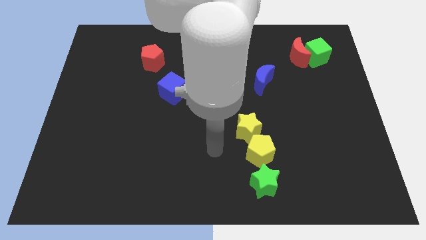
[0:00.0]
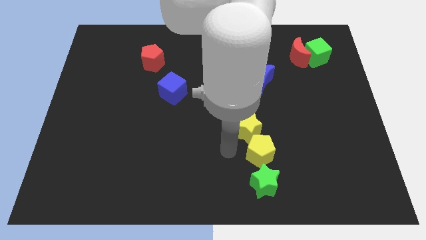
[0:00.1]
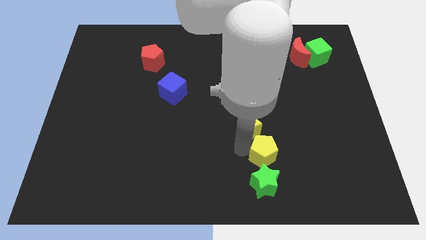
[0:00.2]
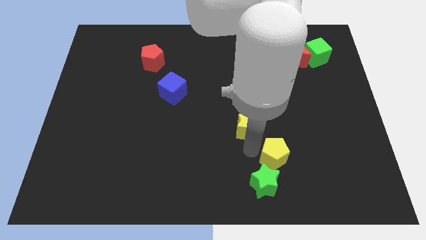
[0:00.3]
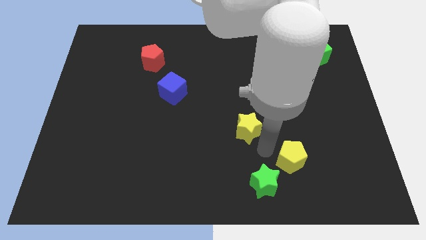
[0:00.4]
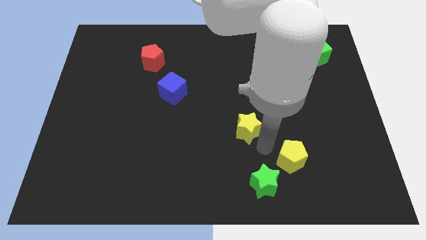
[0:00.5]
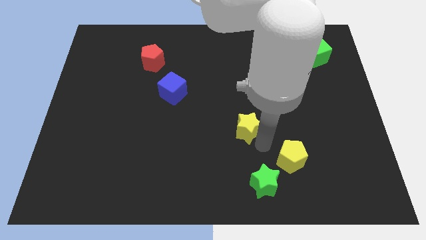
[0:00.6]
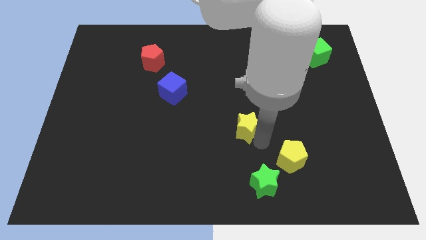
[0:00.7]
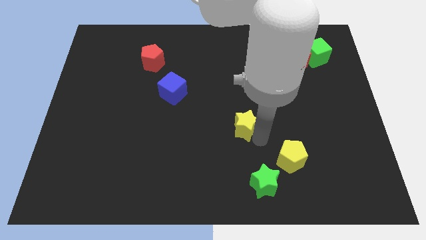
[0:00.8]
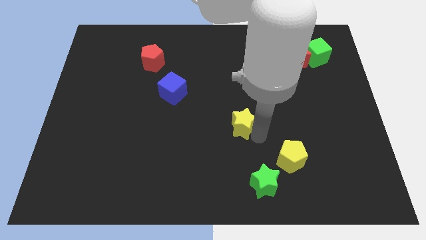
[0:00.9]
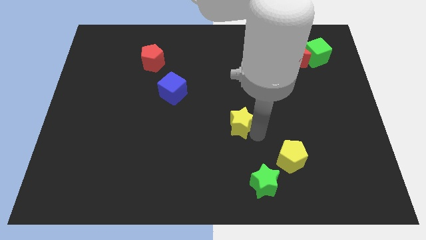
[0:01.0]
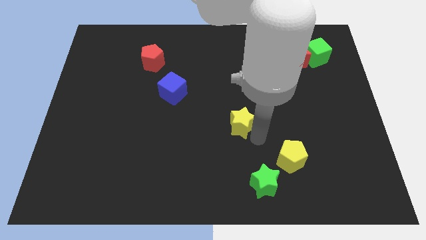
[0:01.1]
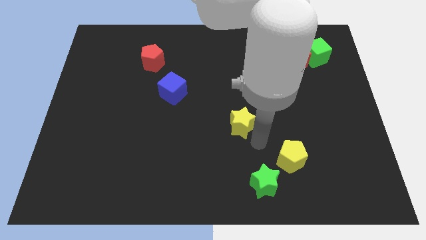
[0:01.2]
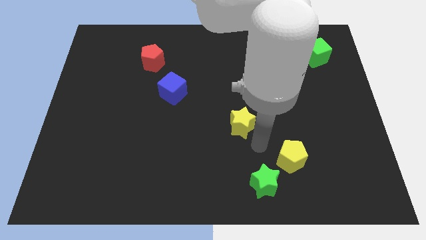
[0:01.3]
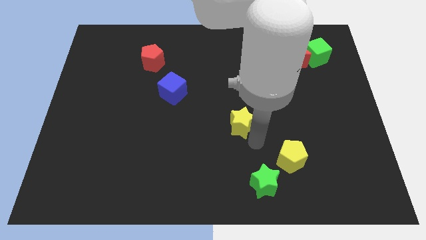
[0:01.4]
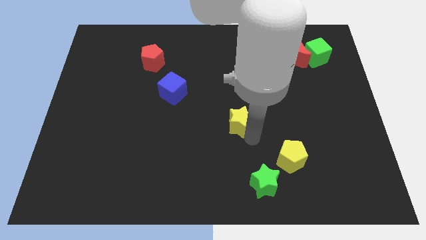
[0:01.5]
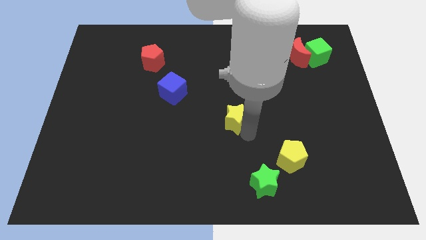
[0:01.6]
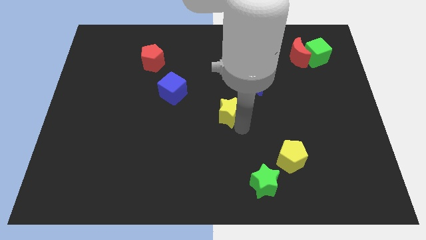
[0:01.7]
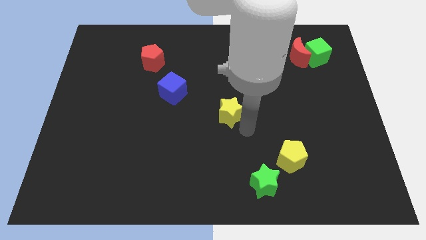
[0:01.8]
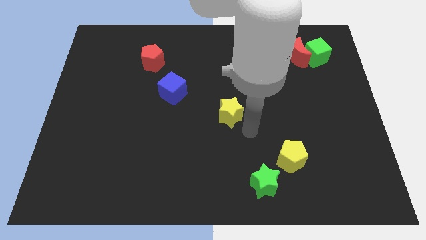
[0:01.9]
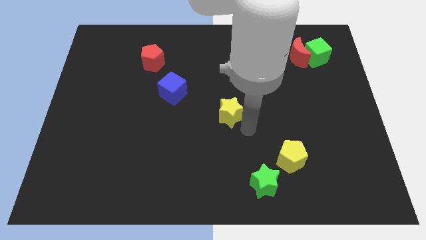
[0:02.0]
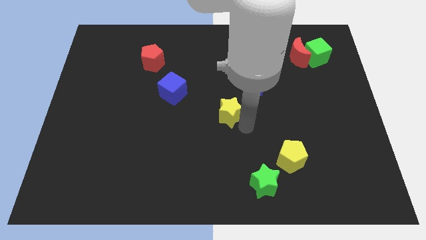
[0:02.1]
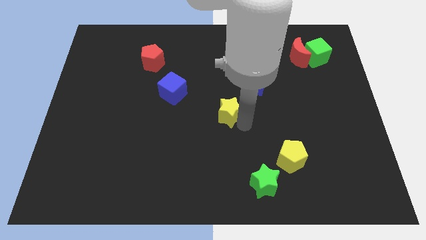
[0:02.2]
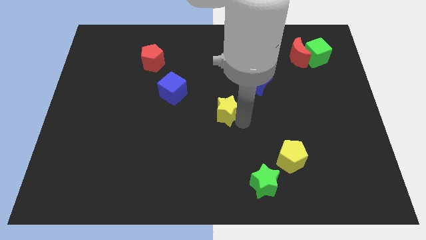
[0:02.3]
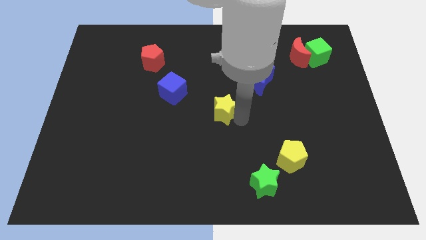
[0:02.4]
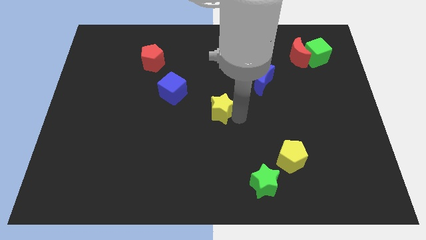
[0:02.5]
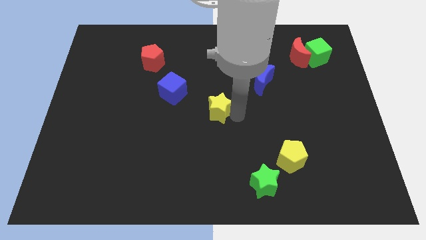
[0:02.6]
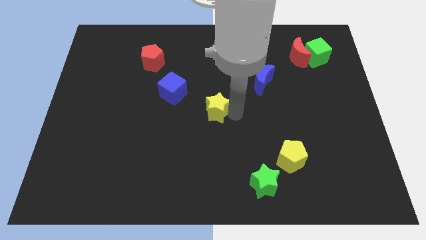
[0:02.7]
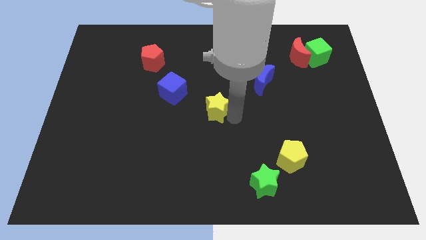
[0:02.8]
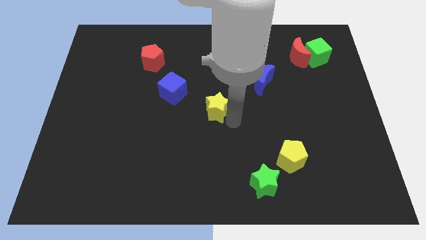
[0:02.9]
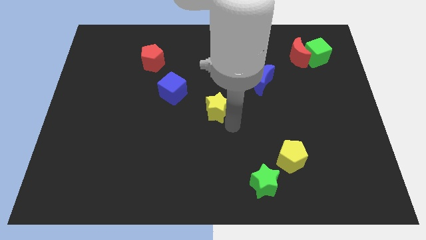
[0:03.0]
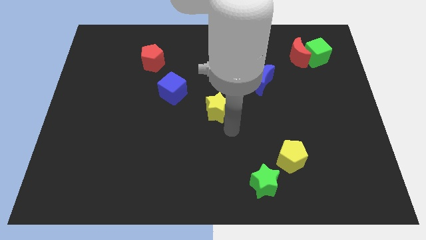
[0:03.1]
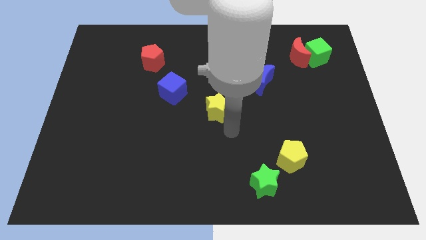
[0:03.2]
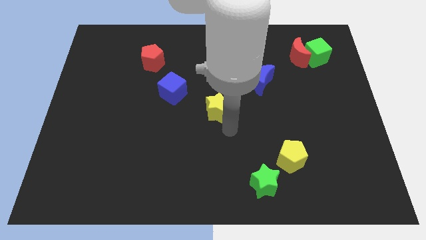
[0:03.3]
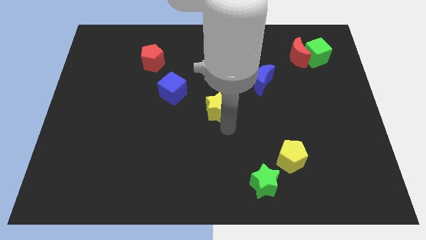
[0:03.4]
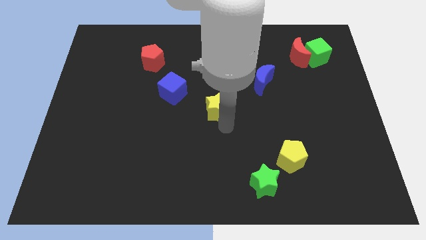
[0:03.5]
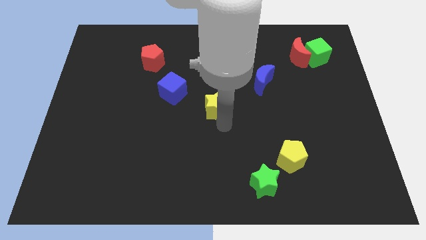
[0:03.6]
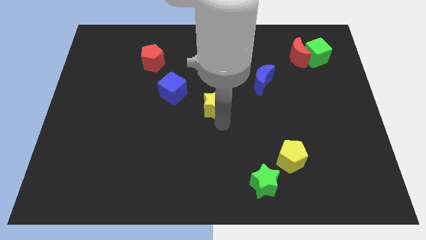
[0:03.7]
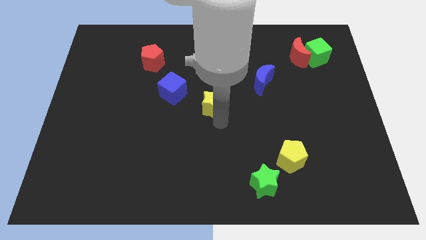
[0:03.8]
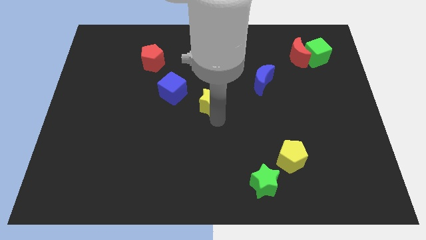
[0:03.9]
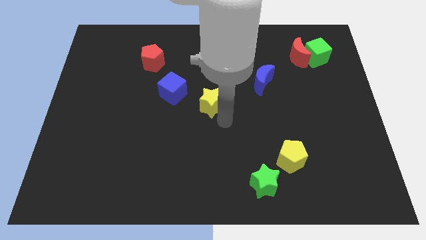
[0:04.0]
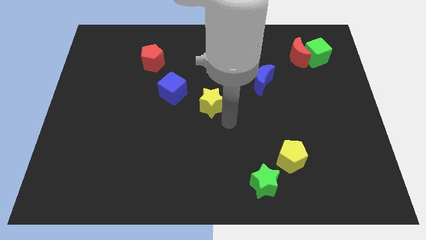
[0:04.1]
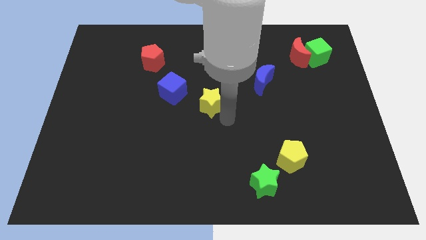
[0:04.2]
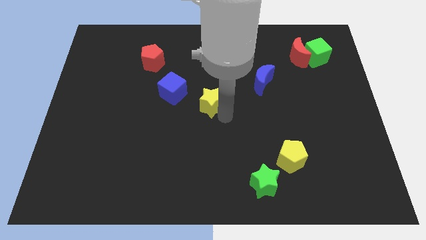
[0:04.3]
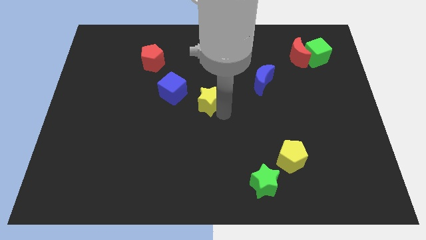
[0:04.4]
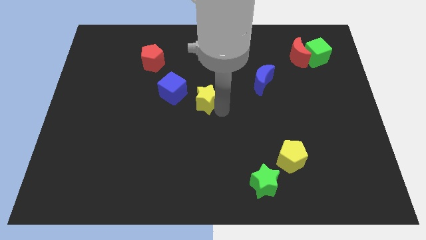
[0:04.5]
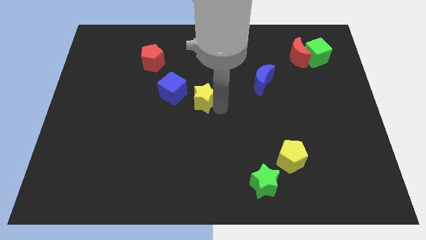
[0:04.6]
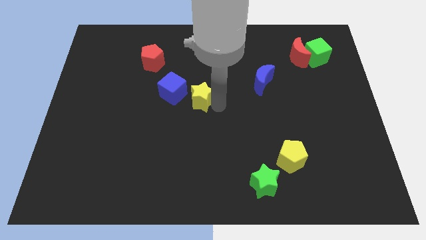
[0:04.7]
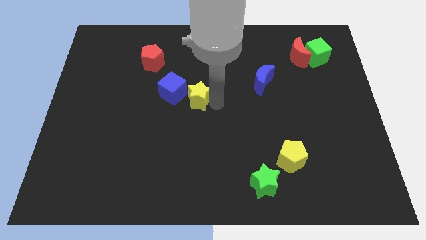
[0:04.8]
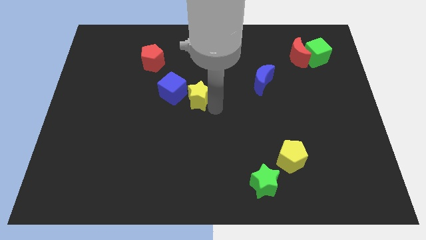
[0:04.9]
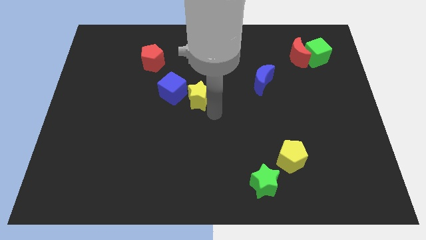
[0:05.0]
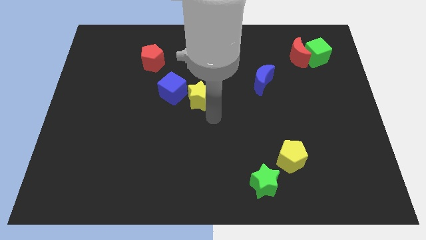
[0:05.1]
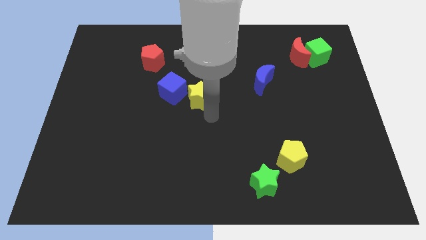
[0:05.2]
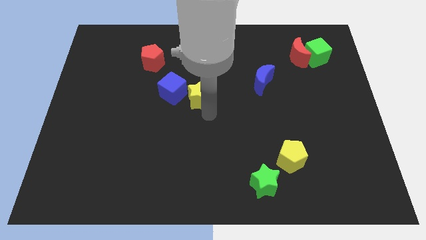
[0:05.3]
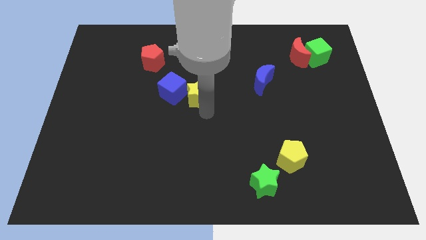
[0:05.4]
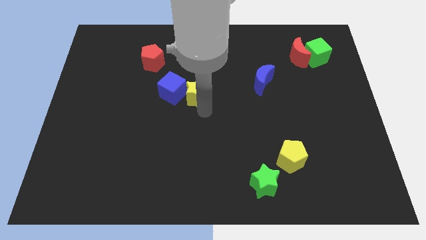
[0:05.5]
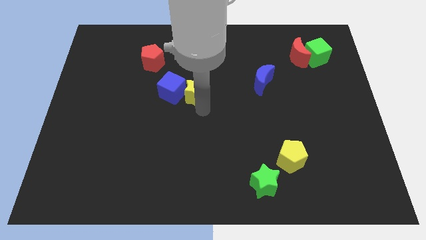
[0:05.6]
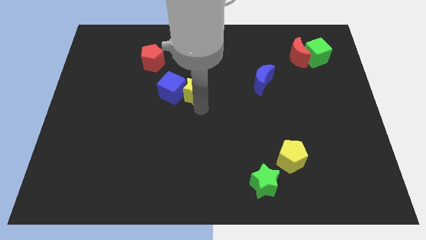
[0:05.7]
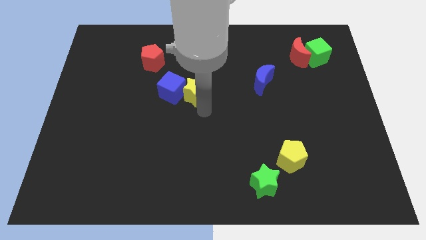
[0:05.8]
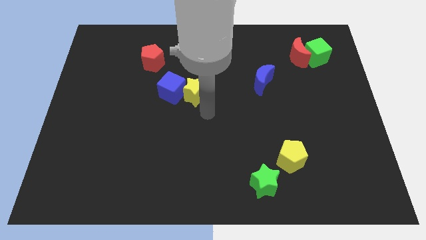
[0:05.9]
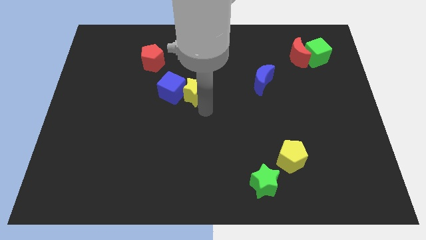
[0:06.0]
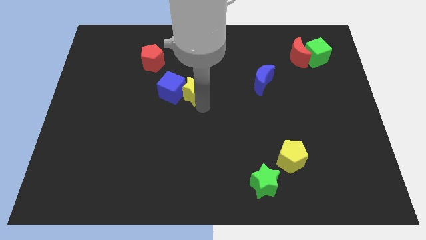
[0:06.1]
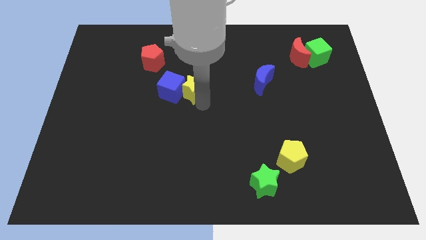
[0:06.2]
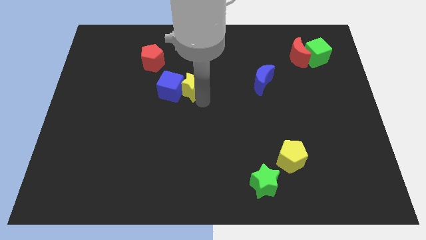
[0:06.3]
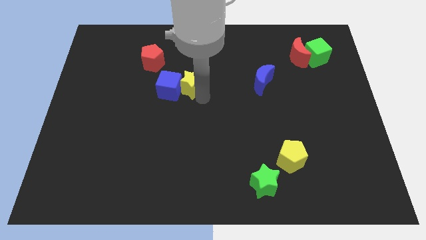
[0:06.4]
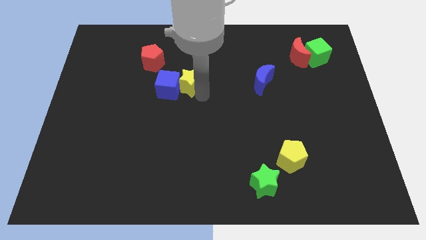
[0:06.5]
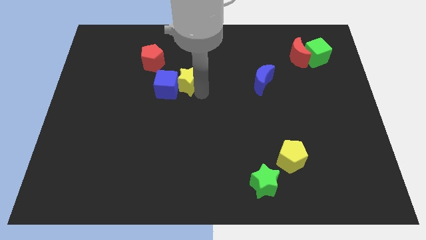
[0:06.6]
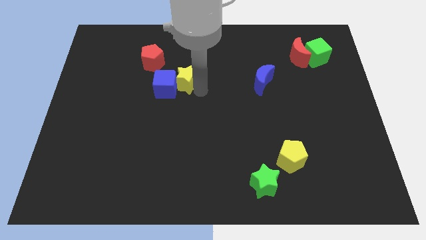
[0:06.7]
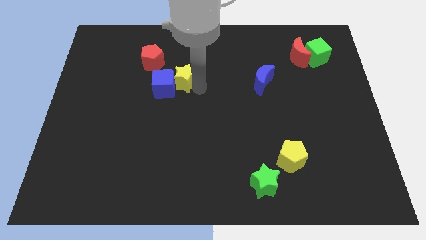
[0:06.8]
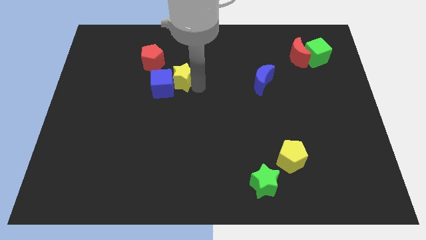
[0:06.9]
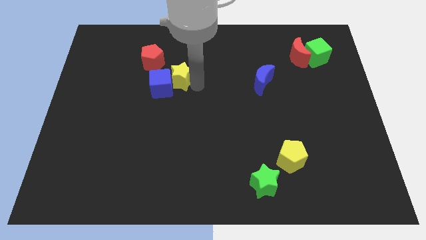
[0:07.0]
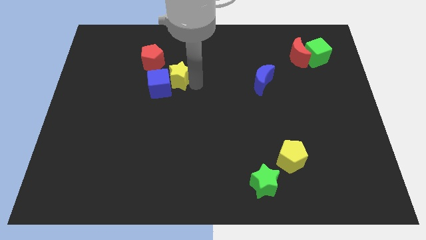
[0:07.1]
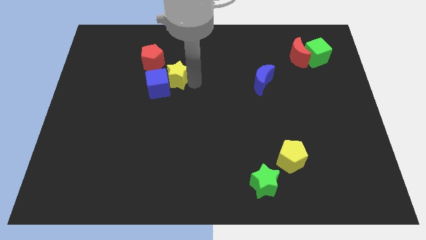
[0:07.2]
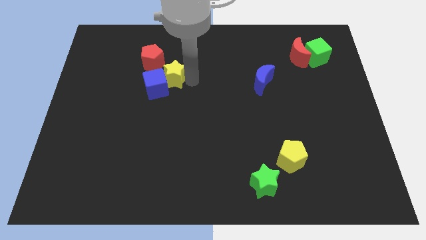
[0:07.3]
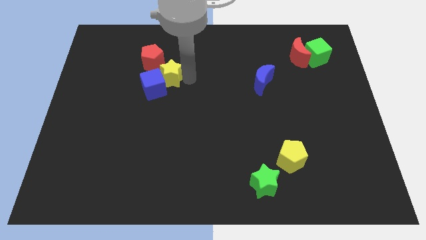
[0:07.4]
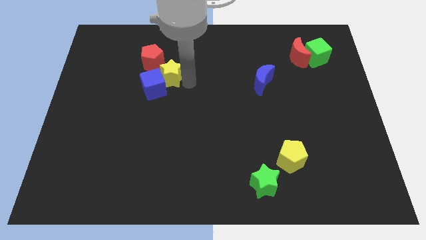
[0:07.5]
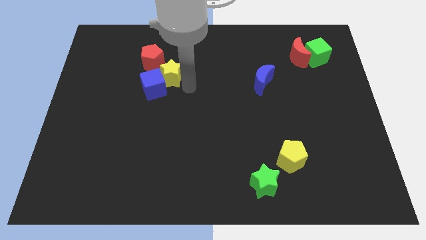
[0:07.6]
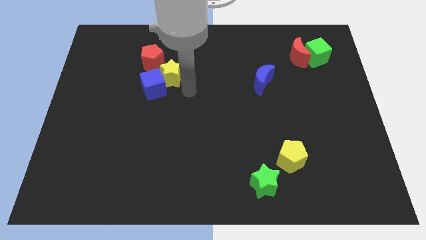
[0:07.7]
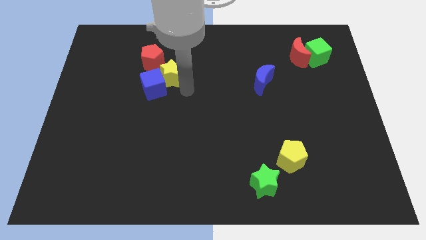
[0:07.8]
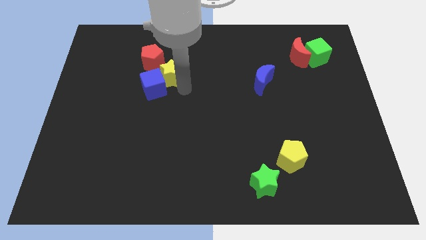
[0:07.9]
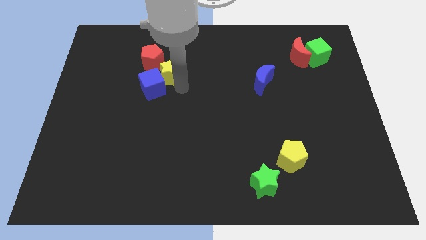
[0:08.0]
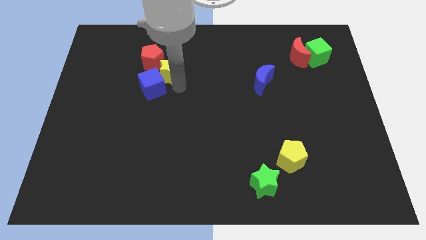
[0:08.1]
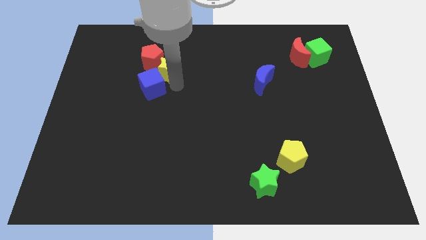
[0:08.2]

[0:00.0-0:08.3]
slide the yellow star towards the red pentagon

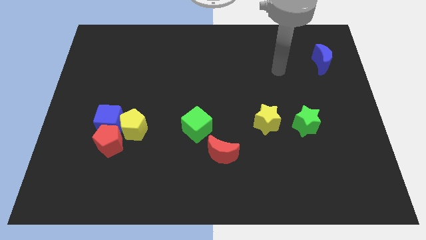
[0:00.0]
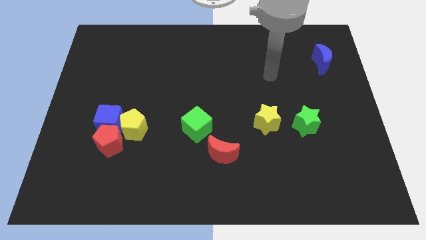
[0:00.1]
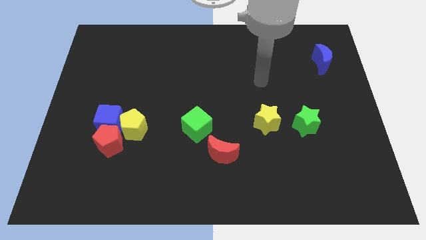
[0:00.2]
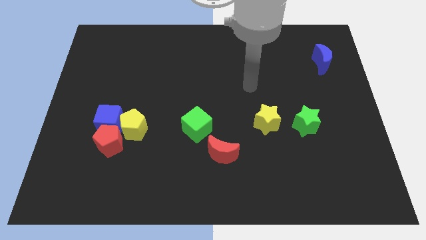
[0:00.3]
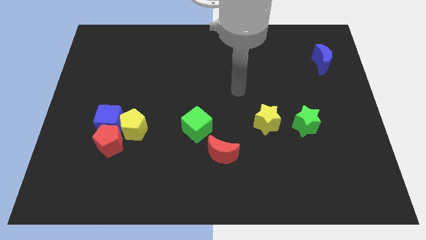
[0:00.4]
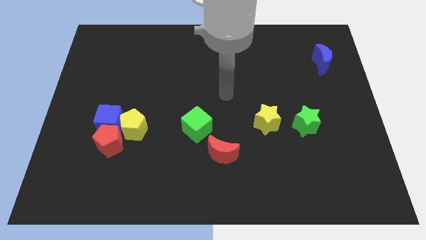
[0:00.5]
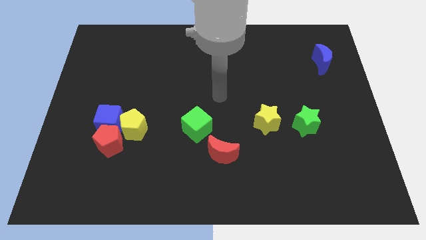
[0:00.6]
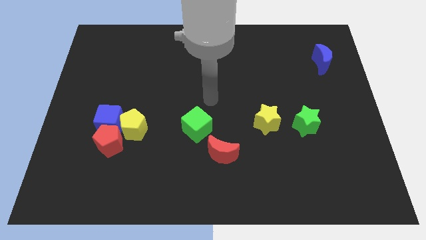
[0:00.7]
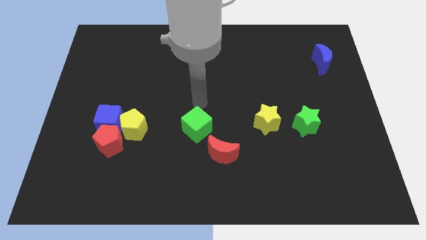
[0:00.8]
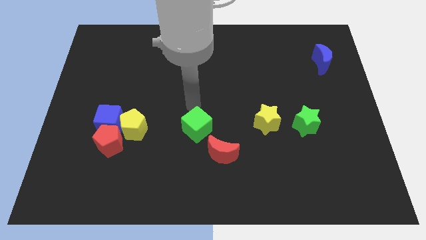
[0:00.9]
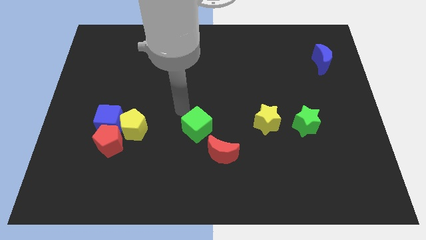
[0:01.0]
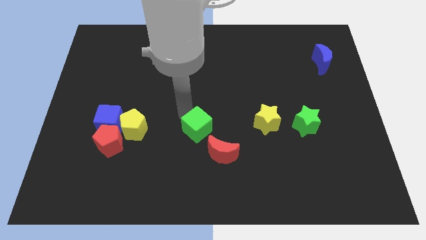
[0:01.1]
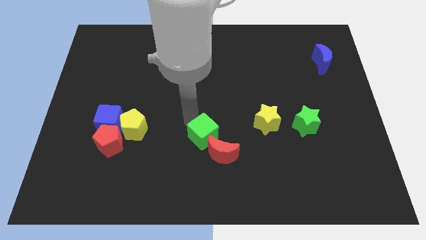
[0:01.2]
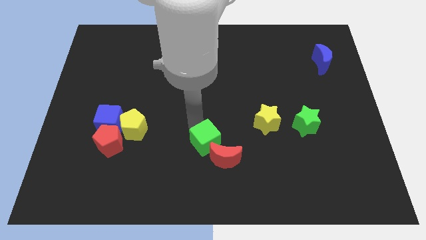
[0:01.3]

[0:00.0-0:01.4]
slide the green cube to the red moon
